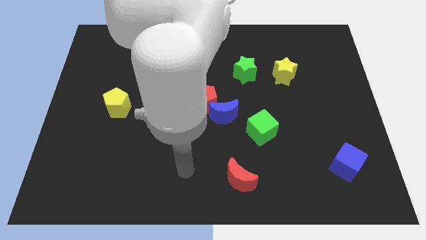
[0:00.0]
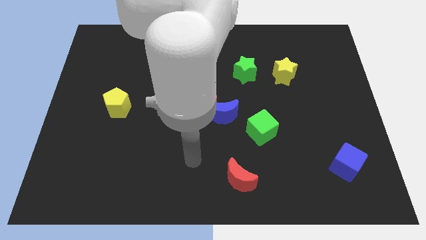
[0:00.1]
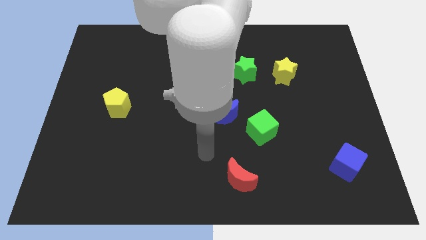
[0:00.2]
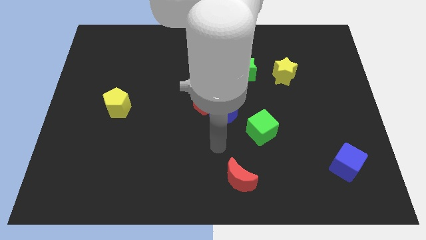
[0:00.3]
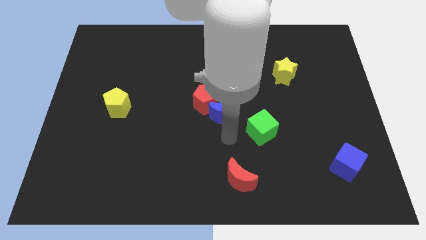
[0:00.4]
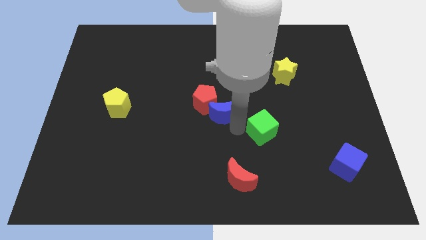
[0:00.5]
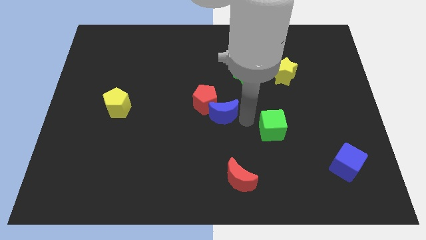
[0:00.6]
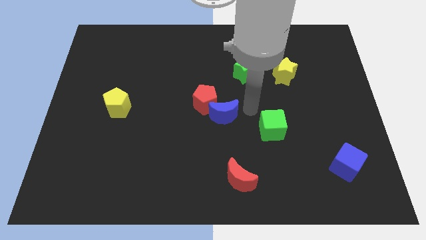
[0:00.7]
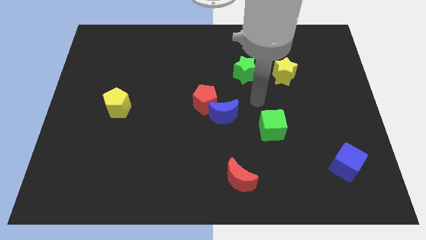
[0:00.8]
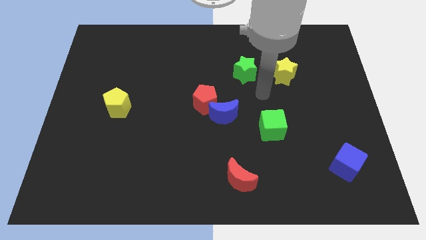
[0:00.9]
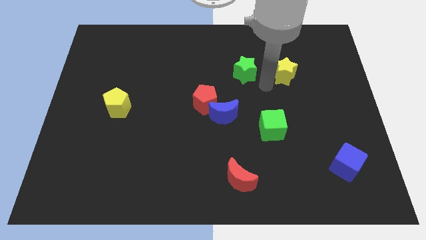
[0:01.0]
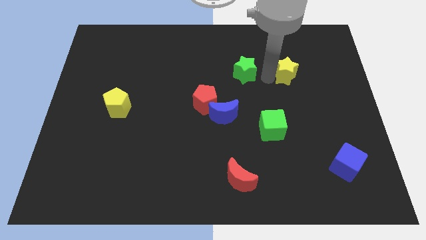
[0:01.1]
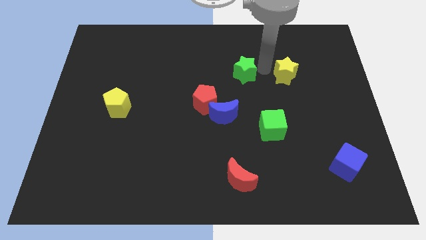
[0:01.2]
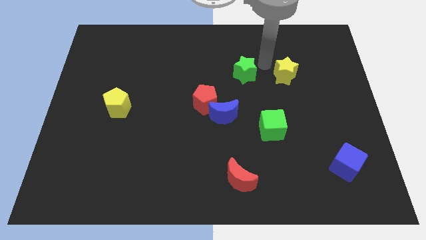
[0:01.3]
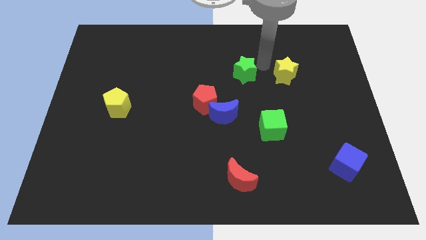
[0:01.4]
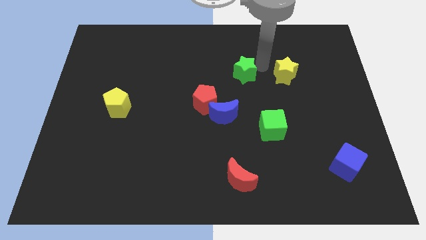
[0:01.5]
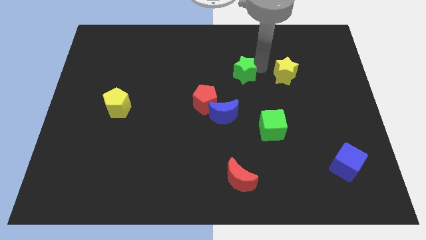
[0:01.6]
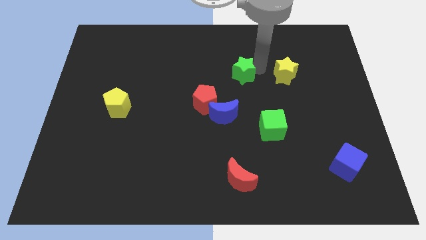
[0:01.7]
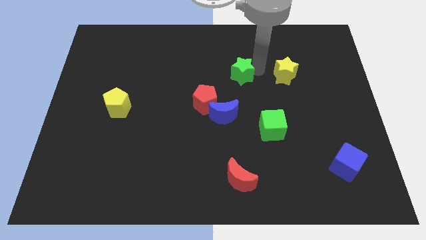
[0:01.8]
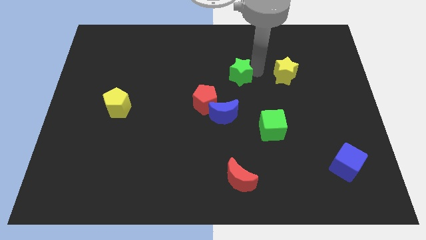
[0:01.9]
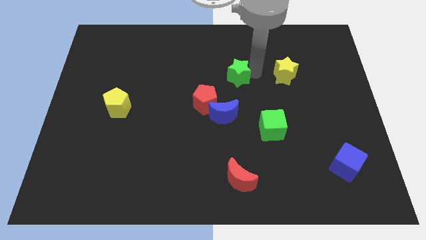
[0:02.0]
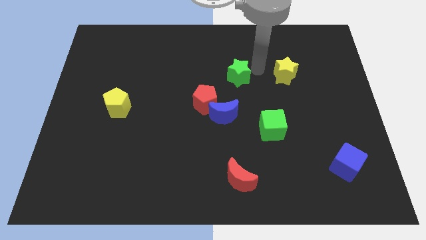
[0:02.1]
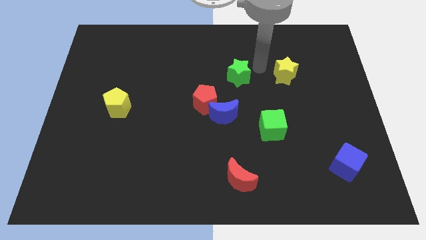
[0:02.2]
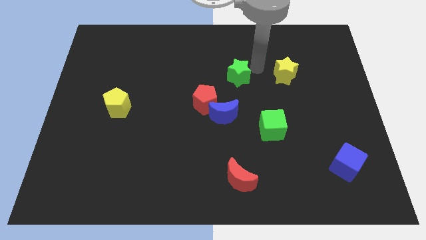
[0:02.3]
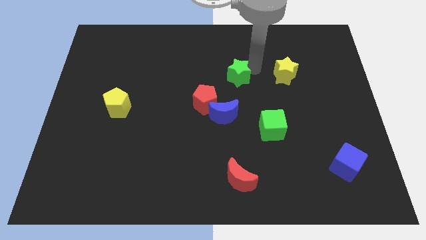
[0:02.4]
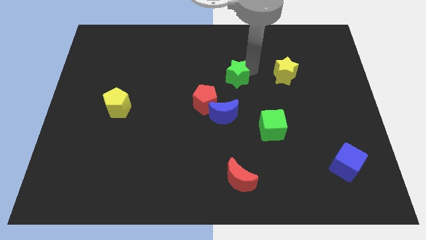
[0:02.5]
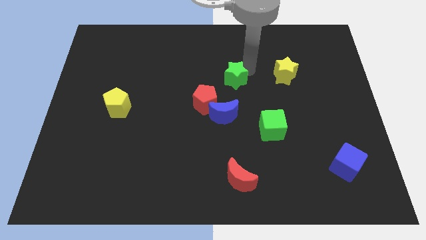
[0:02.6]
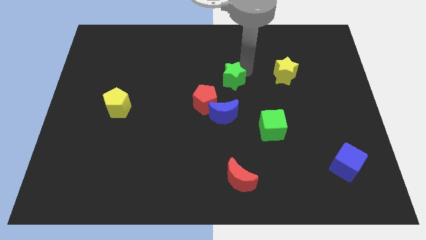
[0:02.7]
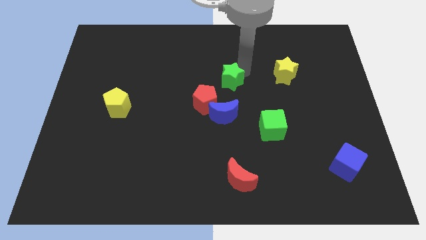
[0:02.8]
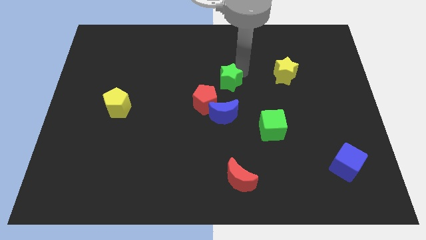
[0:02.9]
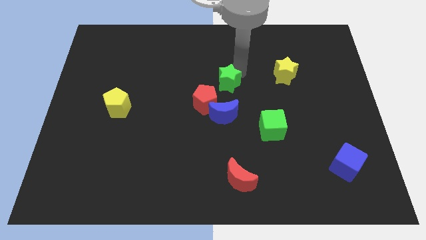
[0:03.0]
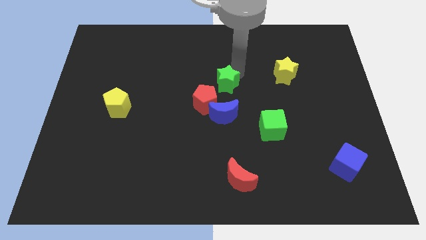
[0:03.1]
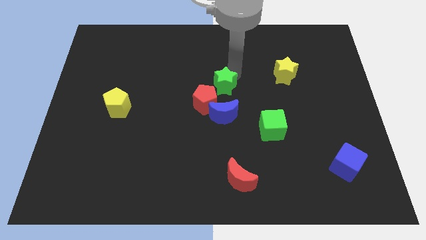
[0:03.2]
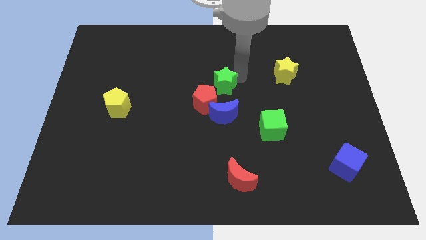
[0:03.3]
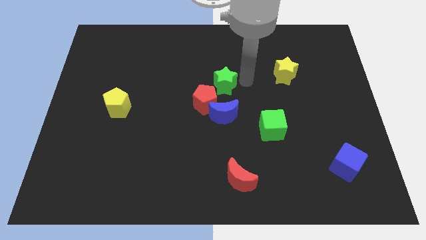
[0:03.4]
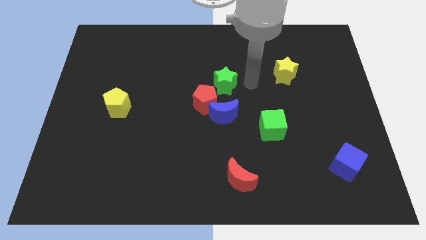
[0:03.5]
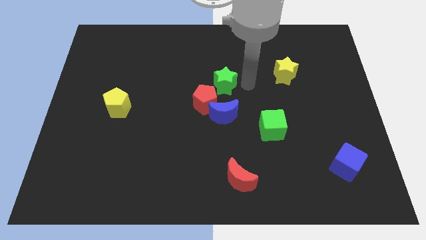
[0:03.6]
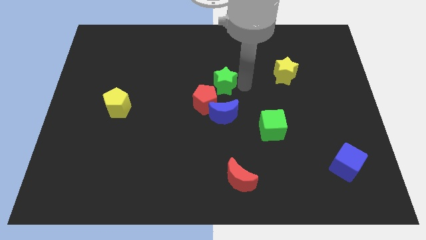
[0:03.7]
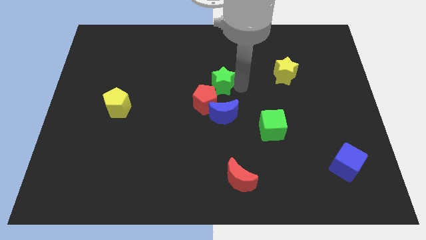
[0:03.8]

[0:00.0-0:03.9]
slide the green star downwards and to the left a bit

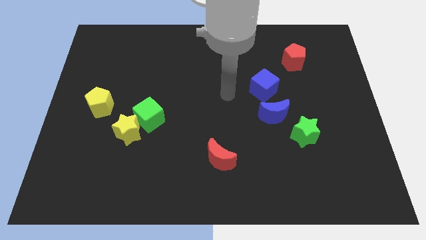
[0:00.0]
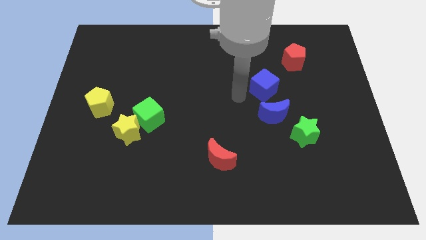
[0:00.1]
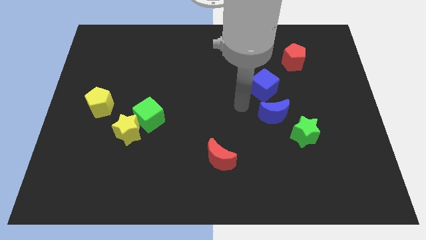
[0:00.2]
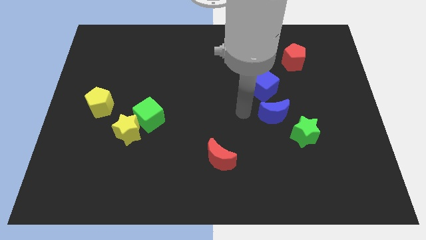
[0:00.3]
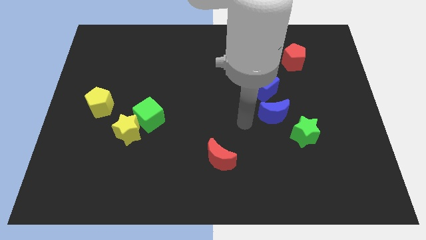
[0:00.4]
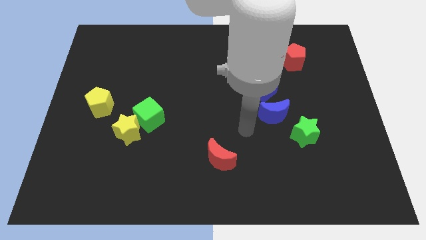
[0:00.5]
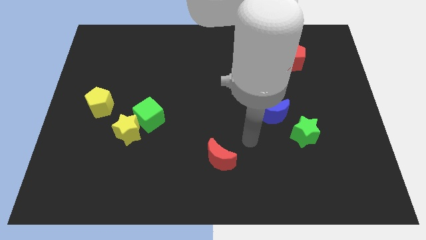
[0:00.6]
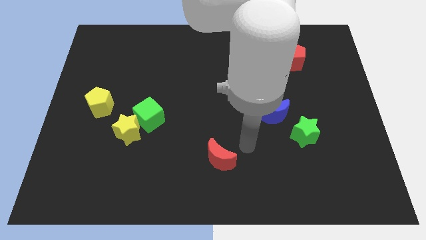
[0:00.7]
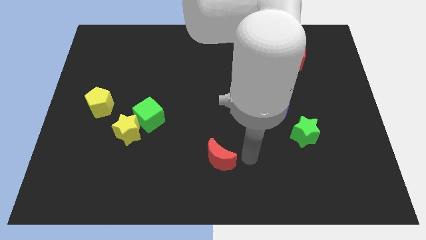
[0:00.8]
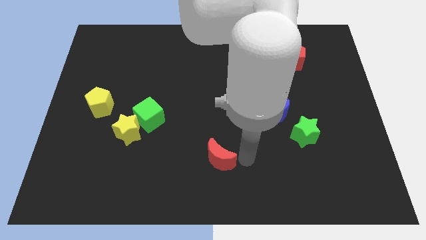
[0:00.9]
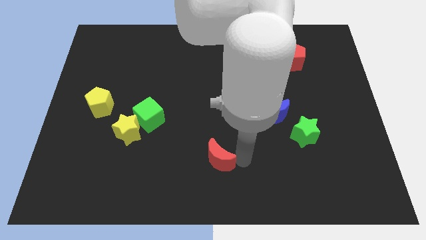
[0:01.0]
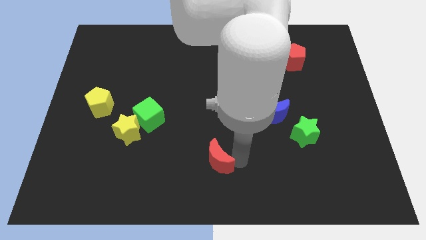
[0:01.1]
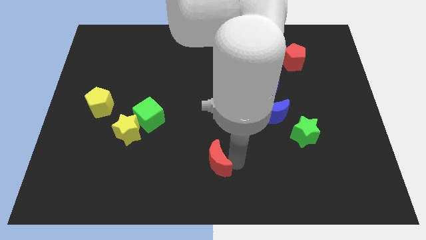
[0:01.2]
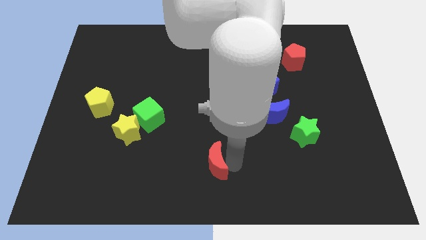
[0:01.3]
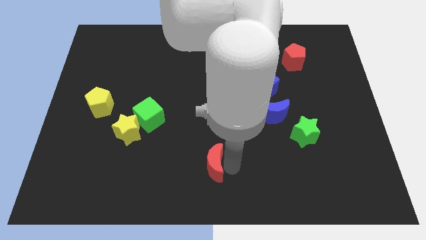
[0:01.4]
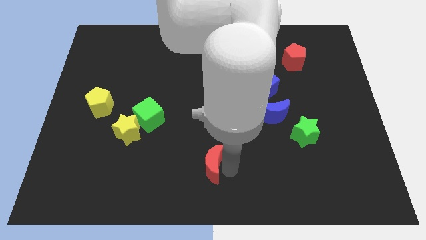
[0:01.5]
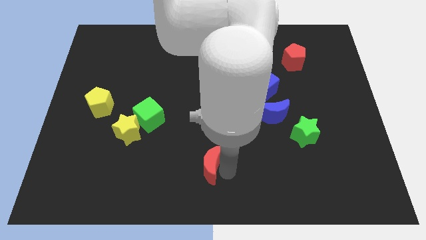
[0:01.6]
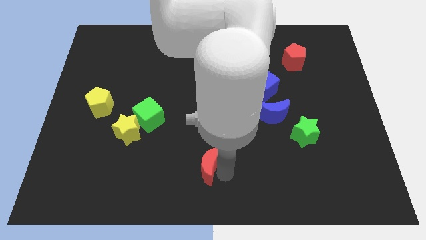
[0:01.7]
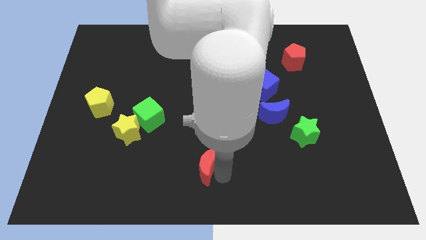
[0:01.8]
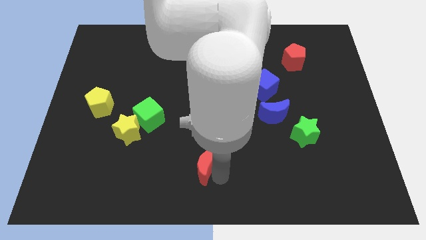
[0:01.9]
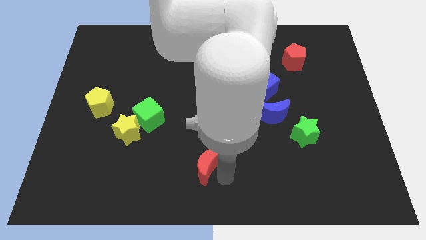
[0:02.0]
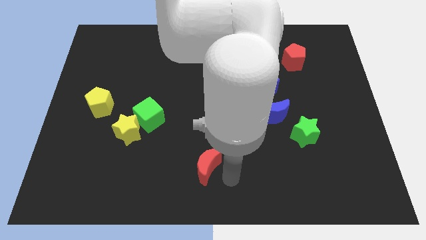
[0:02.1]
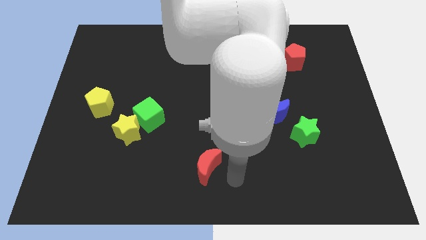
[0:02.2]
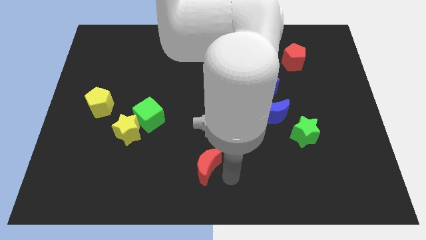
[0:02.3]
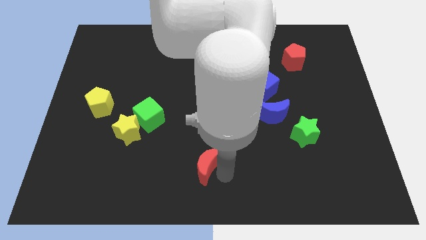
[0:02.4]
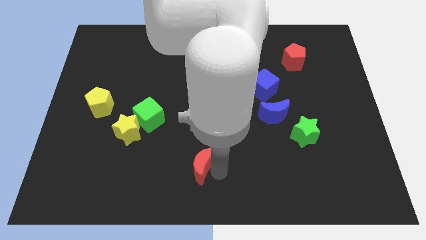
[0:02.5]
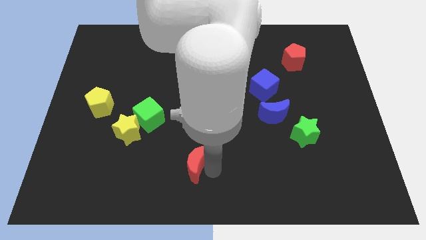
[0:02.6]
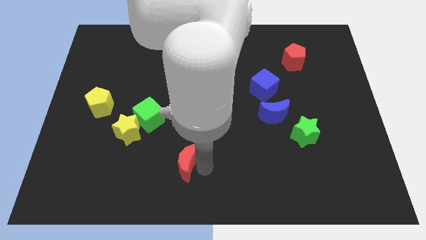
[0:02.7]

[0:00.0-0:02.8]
move the red moon to the left a little bit

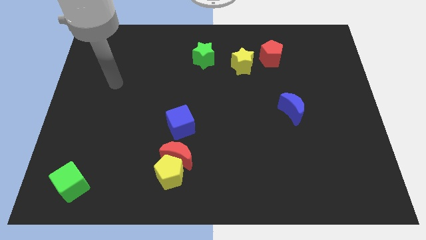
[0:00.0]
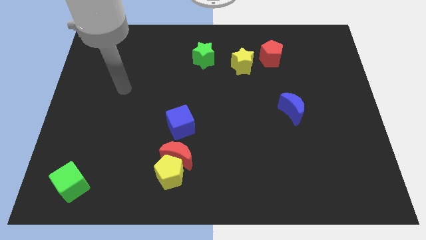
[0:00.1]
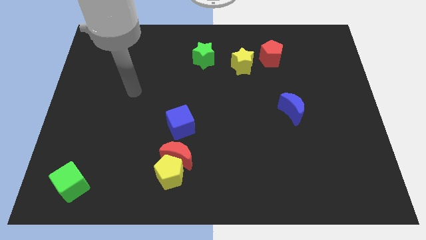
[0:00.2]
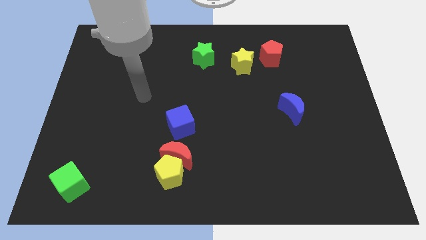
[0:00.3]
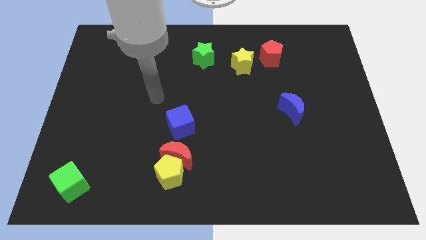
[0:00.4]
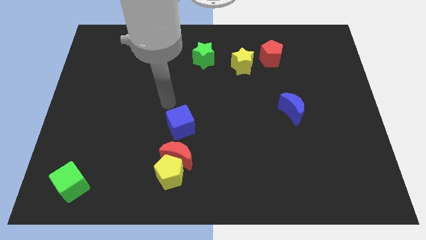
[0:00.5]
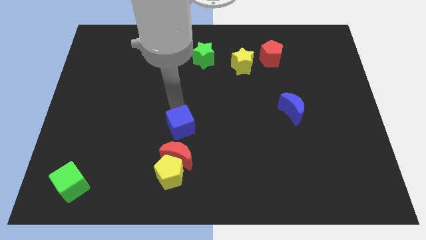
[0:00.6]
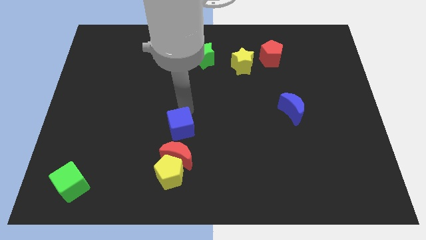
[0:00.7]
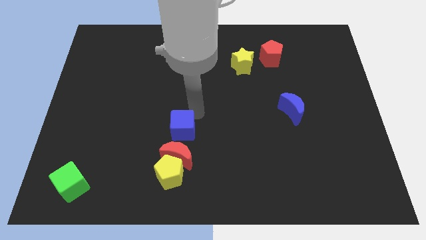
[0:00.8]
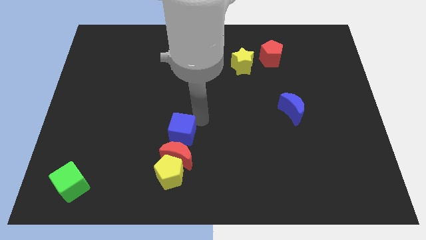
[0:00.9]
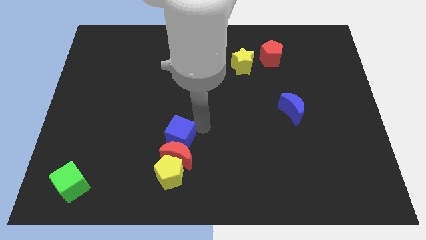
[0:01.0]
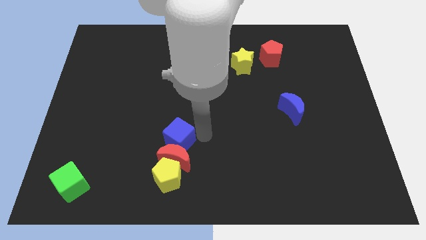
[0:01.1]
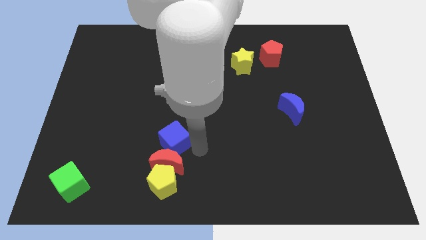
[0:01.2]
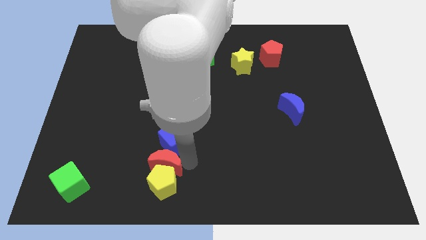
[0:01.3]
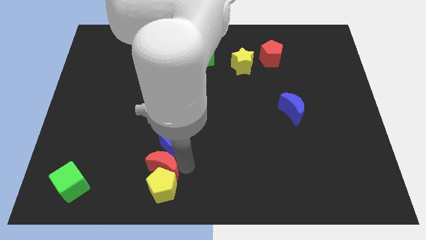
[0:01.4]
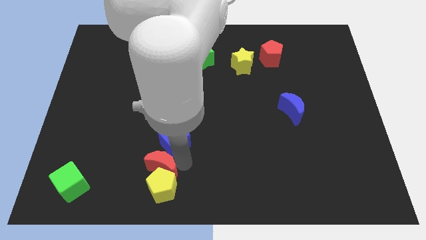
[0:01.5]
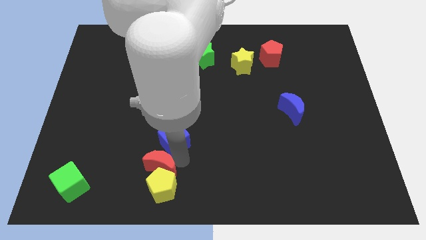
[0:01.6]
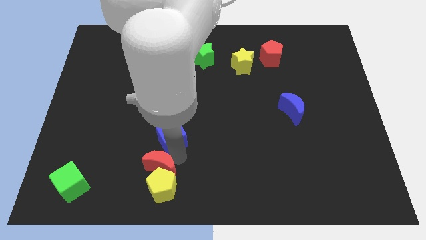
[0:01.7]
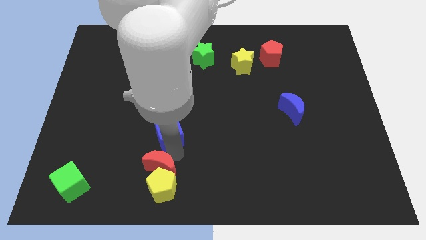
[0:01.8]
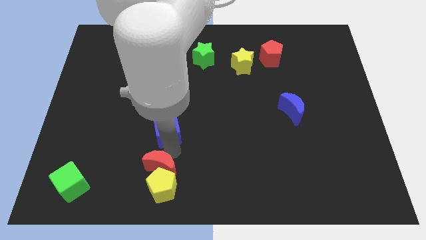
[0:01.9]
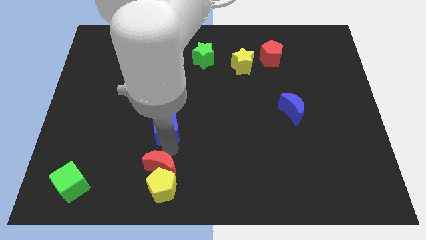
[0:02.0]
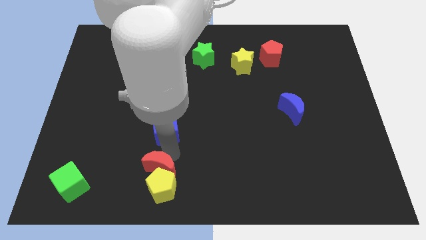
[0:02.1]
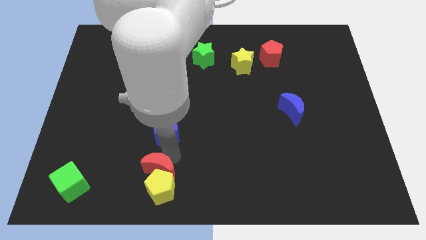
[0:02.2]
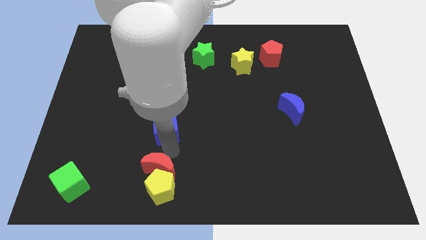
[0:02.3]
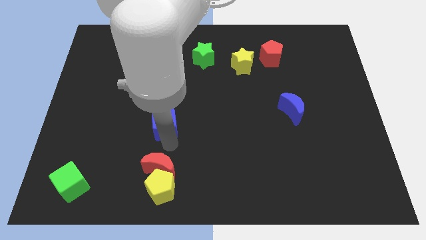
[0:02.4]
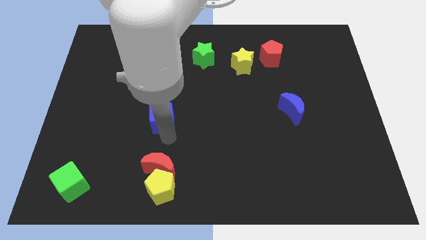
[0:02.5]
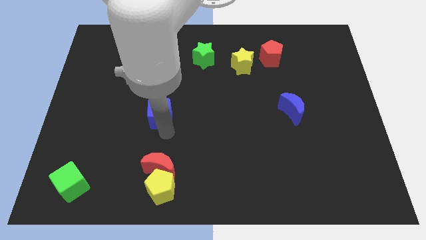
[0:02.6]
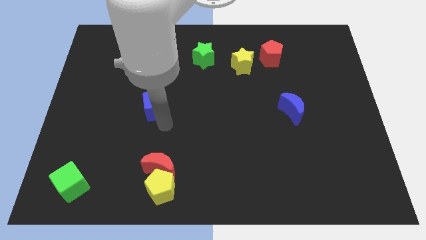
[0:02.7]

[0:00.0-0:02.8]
slightly slide the blue cube up and left
